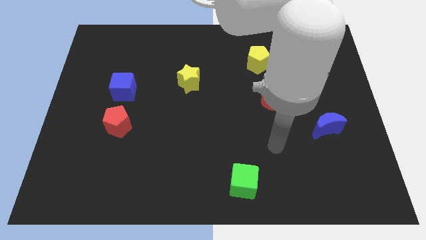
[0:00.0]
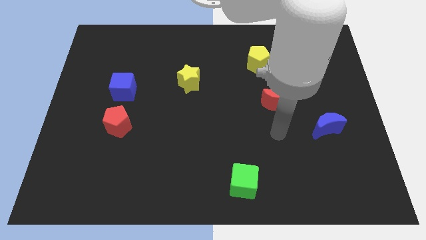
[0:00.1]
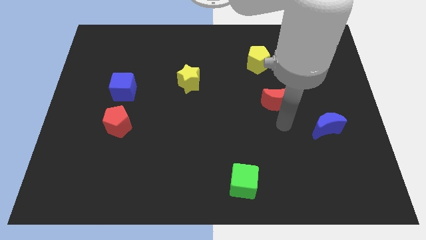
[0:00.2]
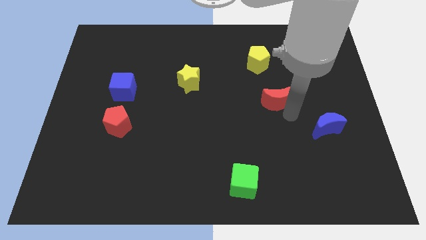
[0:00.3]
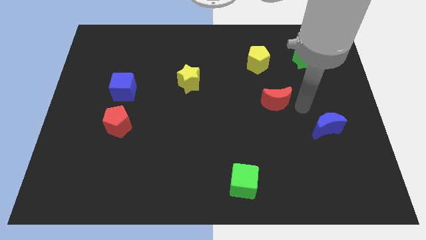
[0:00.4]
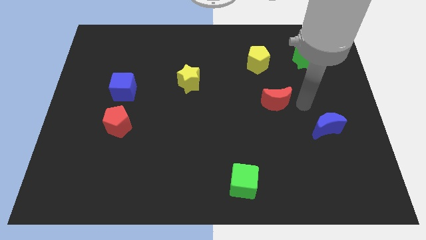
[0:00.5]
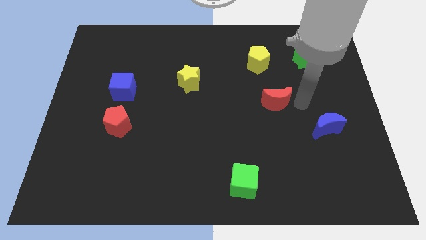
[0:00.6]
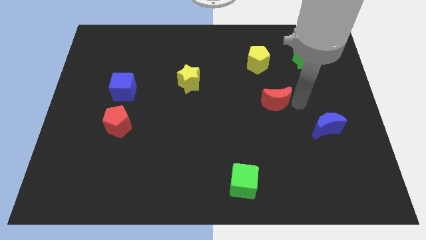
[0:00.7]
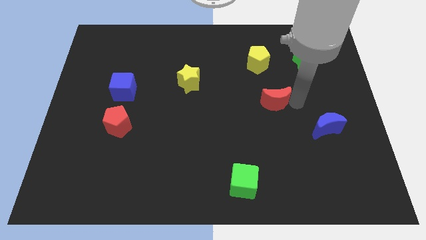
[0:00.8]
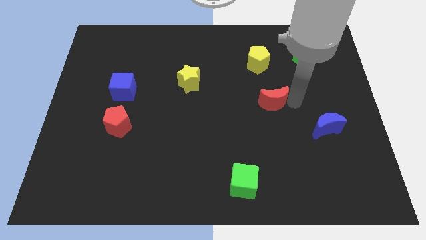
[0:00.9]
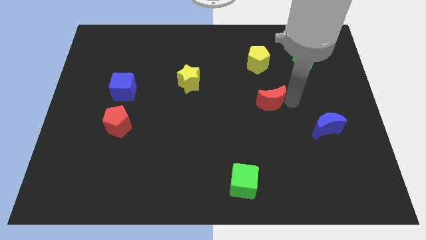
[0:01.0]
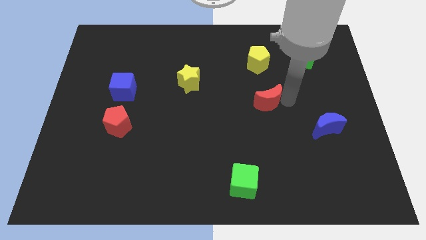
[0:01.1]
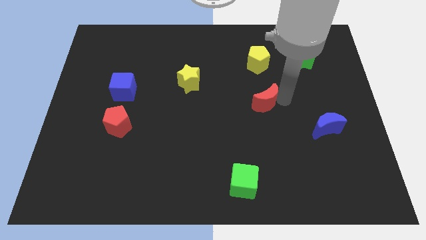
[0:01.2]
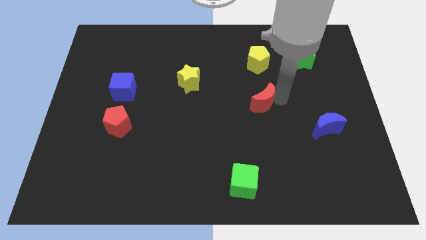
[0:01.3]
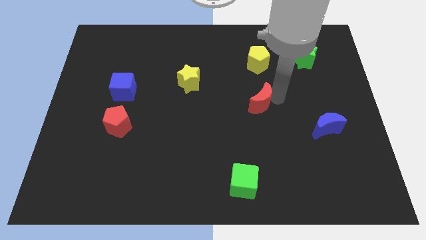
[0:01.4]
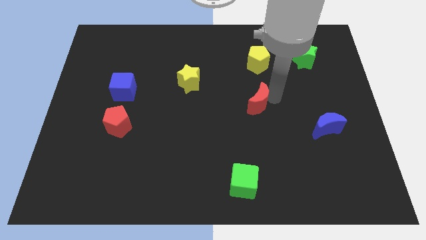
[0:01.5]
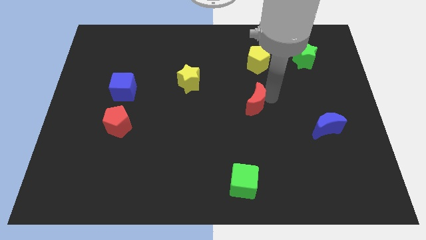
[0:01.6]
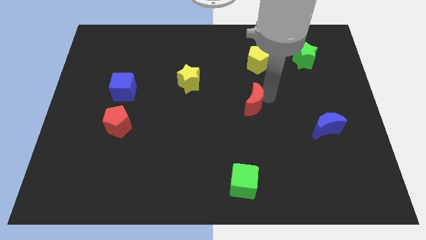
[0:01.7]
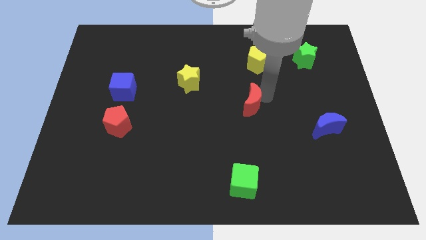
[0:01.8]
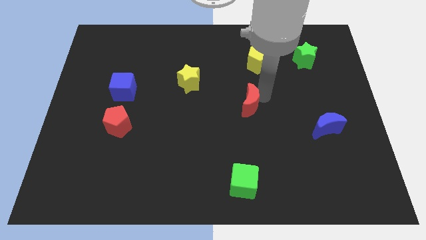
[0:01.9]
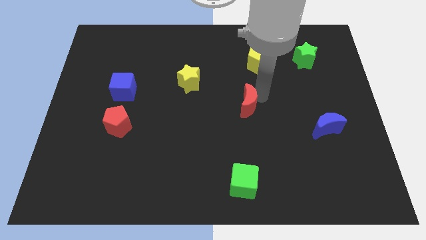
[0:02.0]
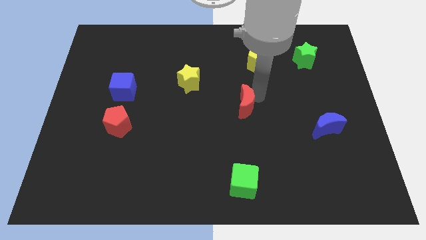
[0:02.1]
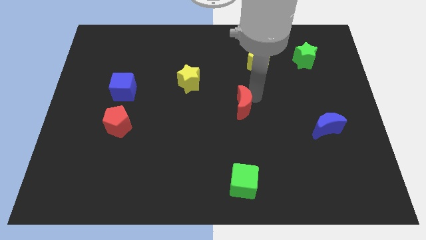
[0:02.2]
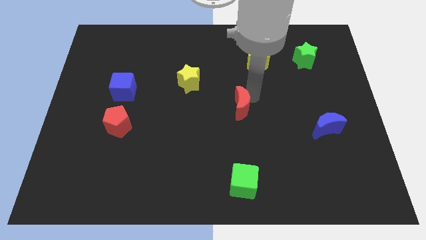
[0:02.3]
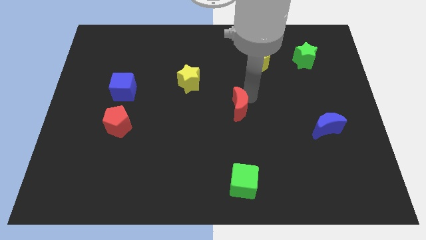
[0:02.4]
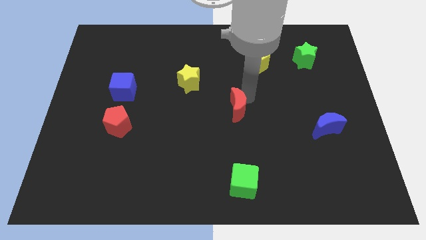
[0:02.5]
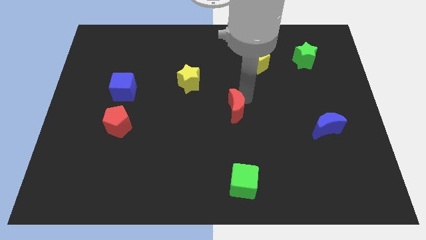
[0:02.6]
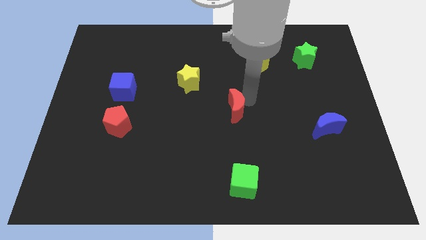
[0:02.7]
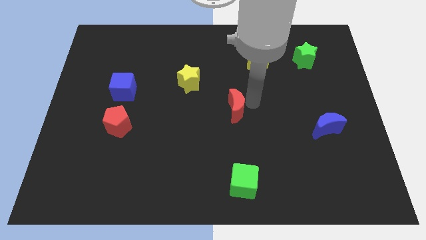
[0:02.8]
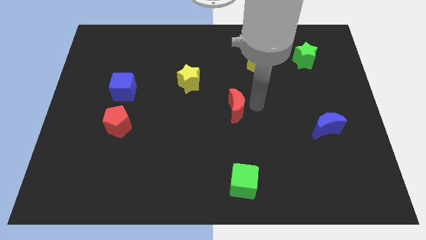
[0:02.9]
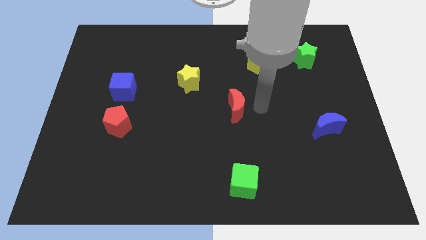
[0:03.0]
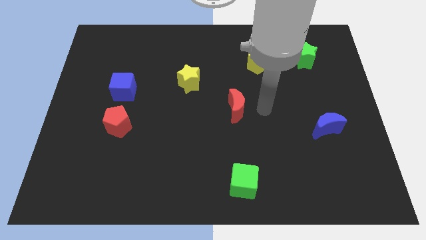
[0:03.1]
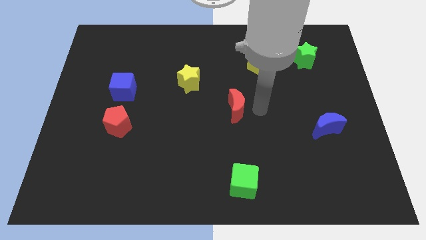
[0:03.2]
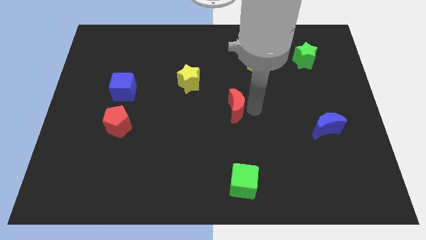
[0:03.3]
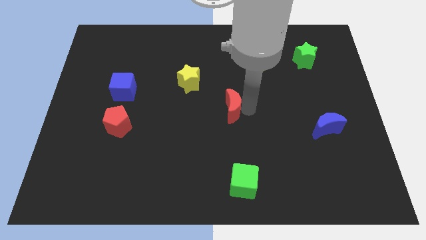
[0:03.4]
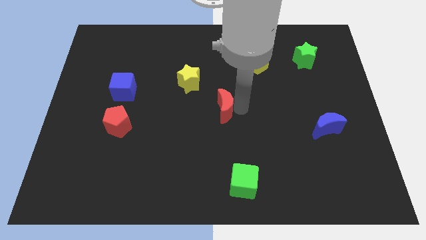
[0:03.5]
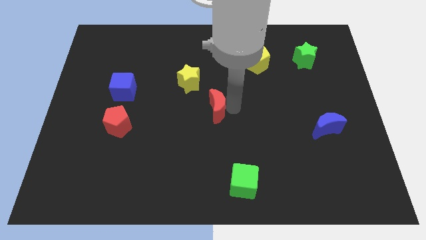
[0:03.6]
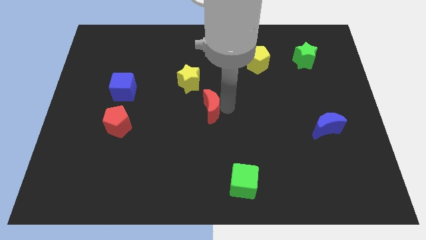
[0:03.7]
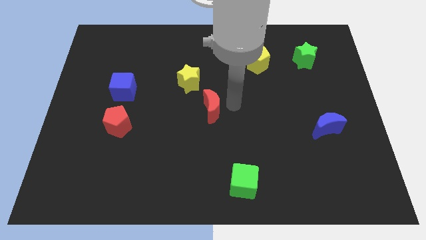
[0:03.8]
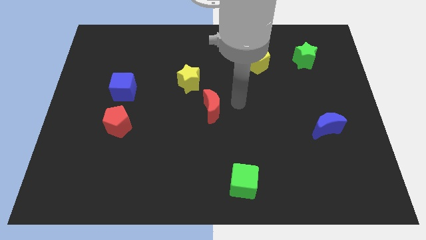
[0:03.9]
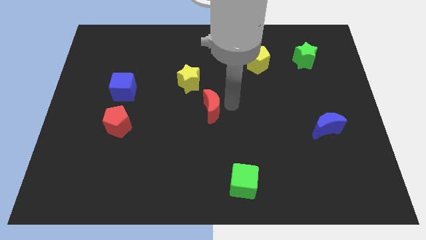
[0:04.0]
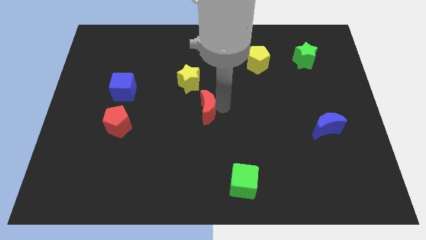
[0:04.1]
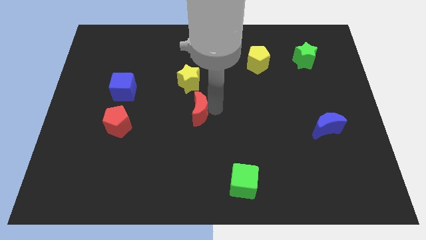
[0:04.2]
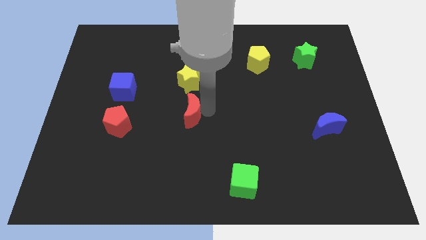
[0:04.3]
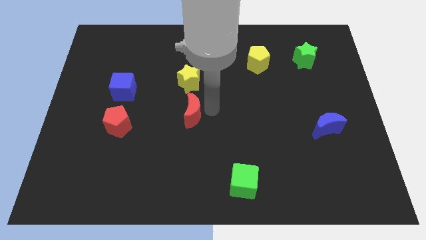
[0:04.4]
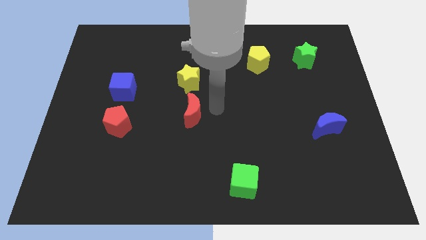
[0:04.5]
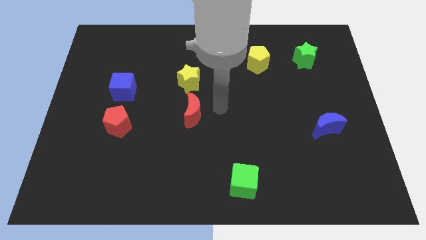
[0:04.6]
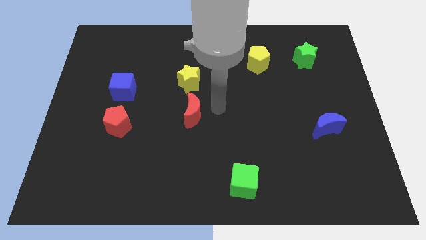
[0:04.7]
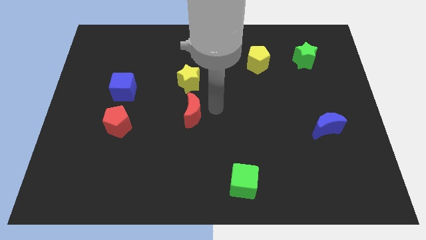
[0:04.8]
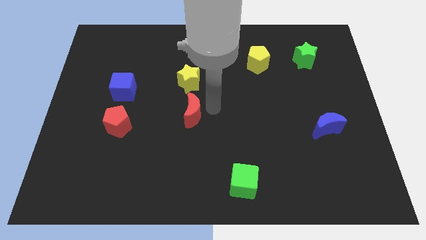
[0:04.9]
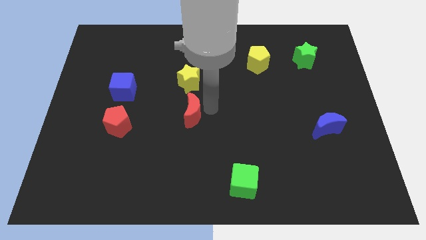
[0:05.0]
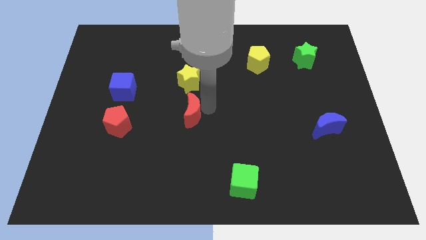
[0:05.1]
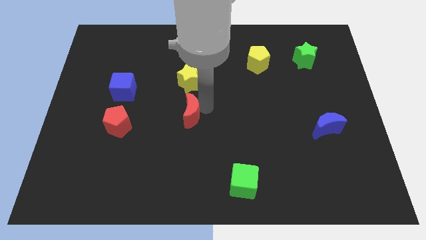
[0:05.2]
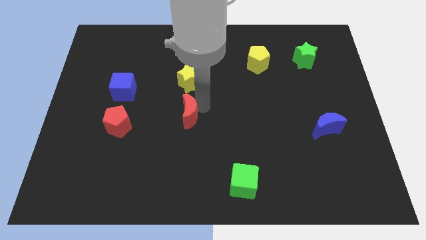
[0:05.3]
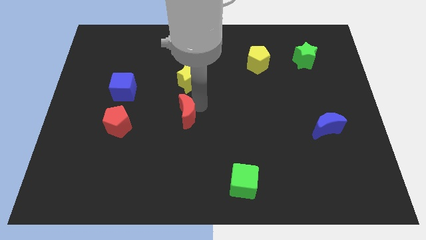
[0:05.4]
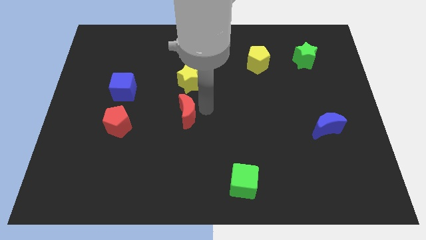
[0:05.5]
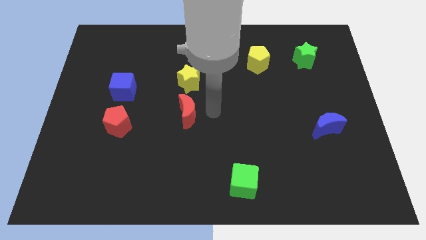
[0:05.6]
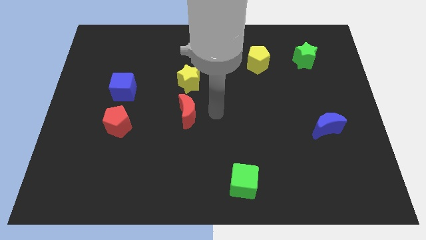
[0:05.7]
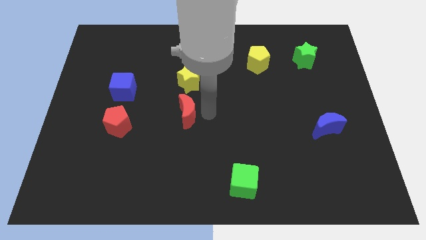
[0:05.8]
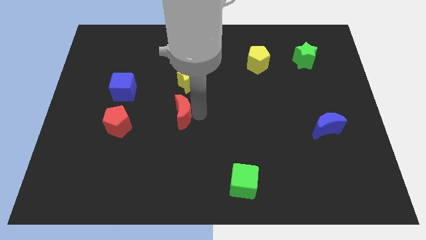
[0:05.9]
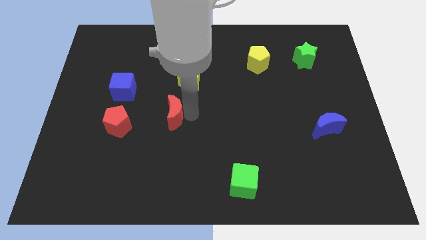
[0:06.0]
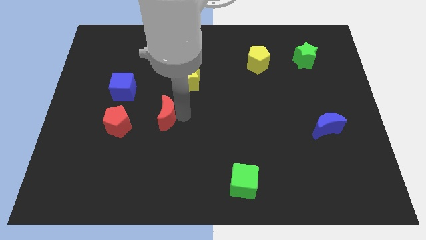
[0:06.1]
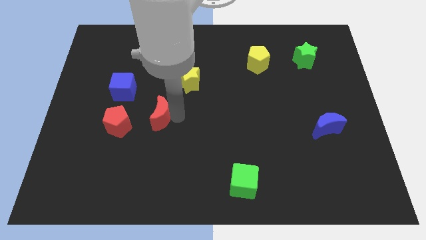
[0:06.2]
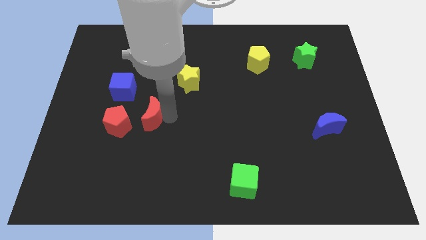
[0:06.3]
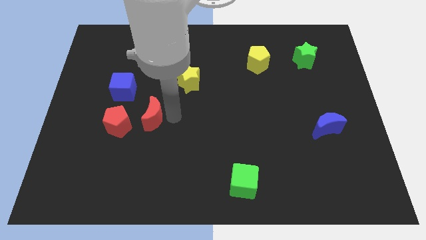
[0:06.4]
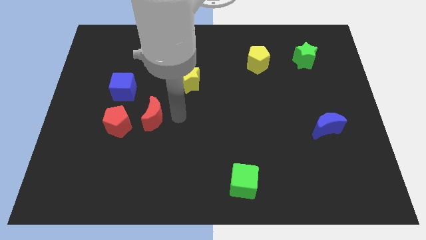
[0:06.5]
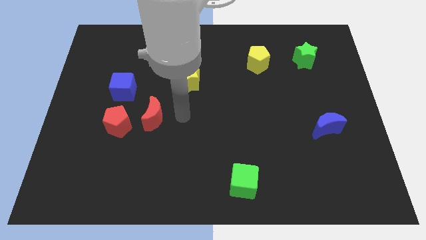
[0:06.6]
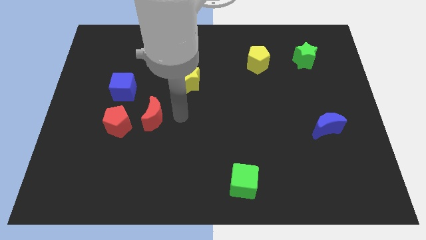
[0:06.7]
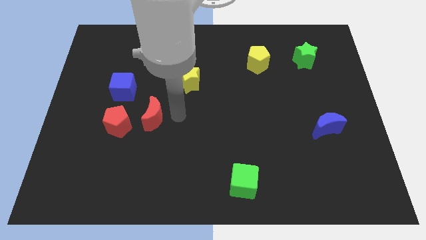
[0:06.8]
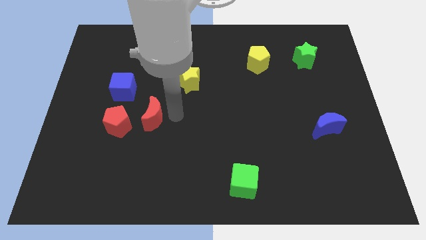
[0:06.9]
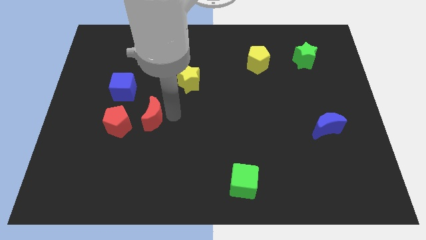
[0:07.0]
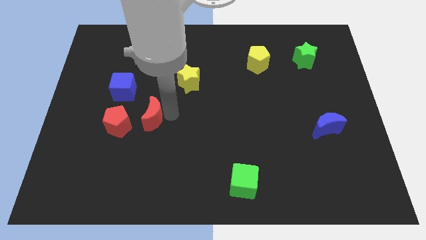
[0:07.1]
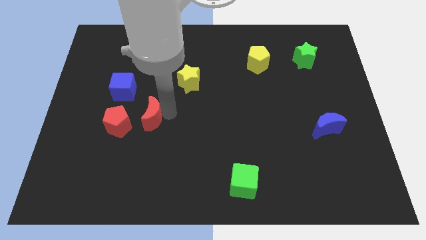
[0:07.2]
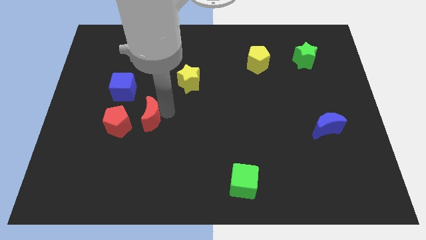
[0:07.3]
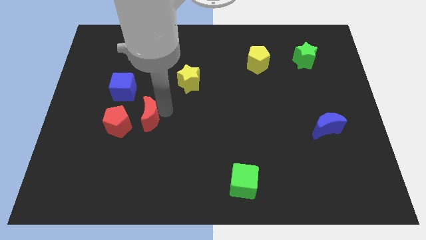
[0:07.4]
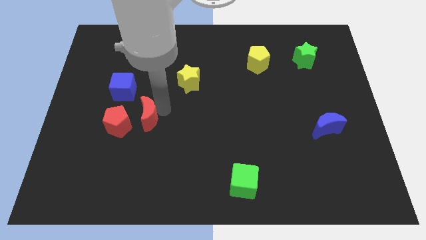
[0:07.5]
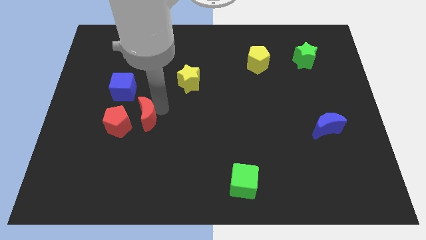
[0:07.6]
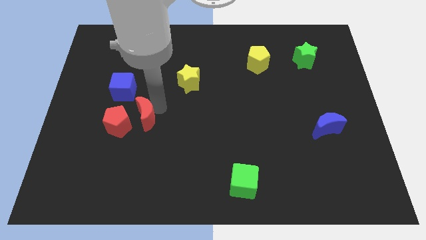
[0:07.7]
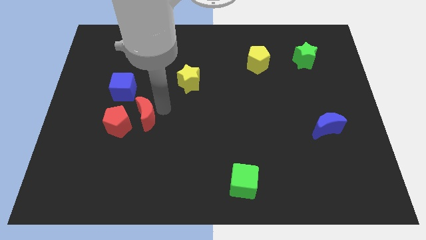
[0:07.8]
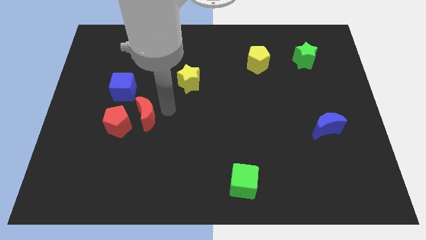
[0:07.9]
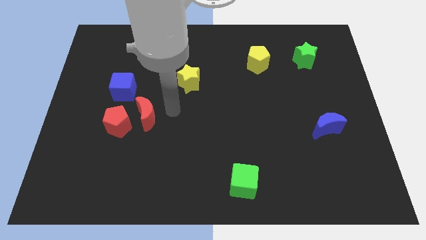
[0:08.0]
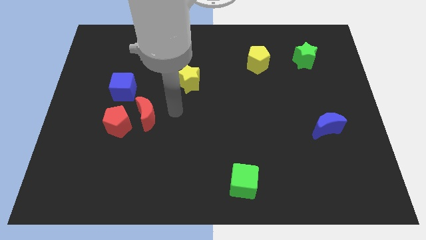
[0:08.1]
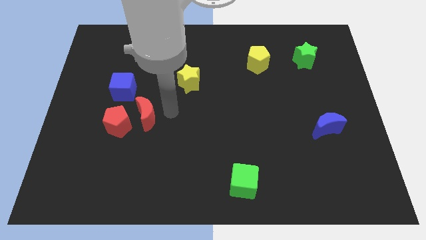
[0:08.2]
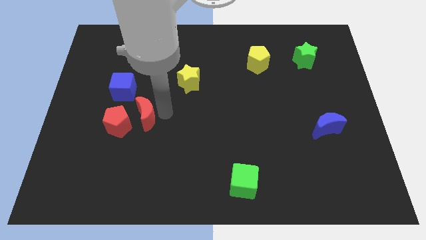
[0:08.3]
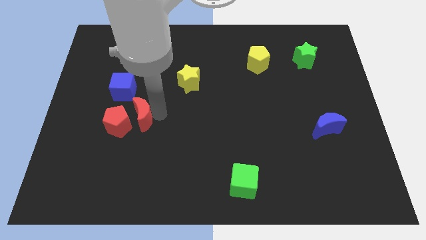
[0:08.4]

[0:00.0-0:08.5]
slide the red moon towards the red pentagon
